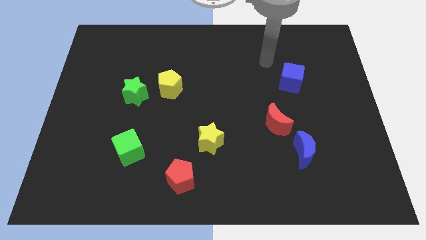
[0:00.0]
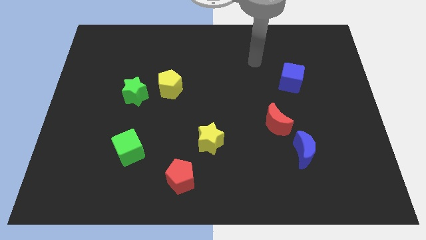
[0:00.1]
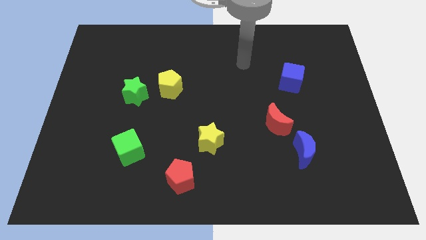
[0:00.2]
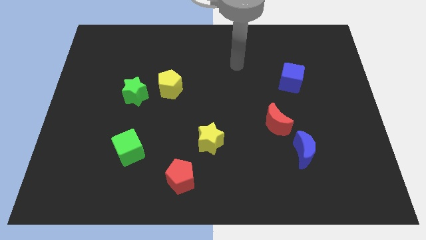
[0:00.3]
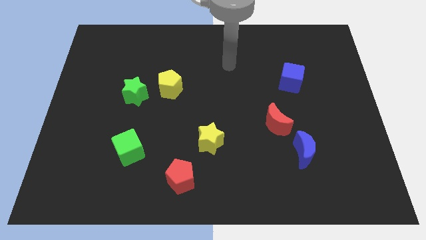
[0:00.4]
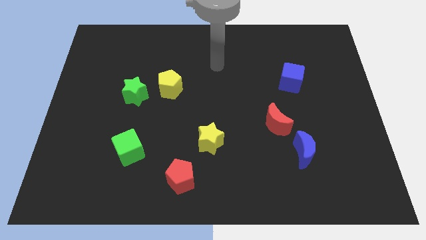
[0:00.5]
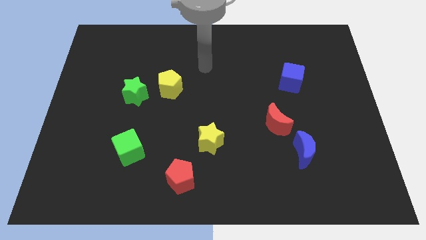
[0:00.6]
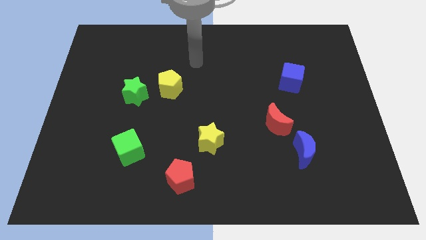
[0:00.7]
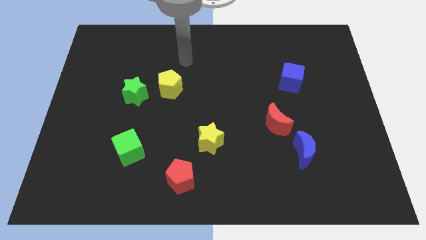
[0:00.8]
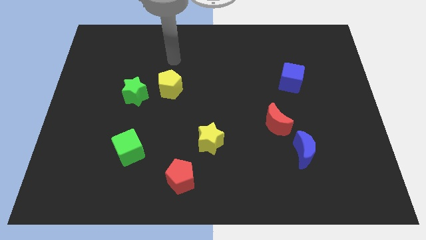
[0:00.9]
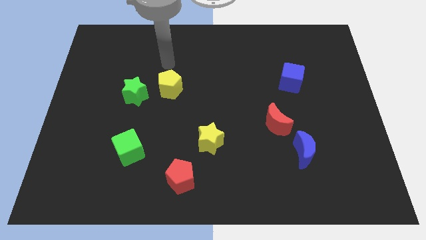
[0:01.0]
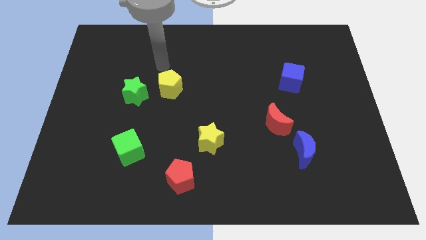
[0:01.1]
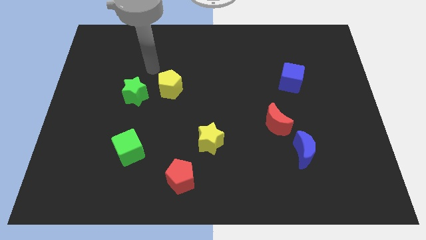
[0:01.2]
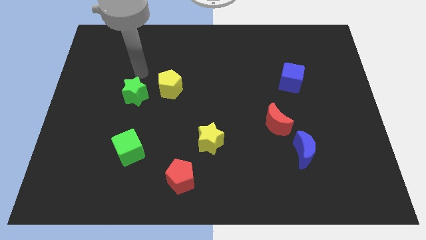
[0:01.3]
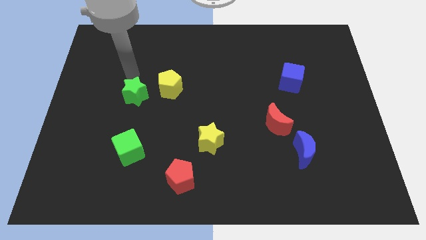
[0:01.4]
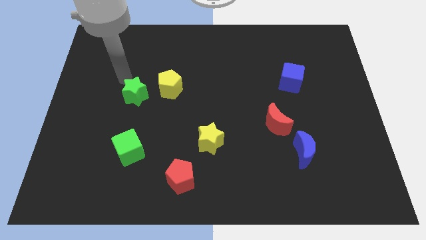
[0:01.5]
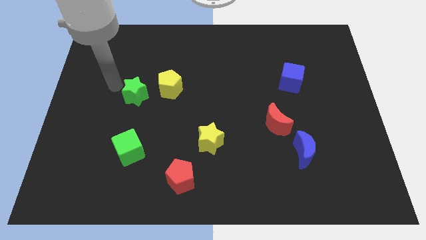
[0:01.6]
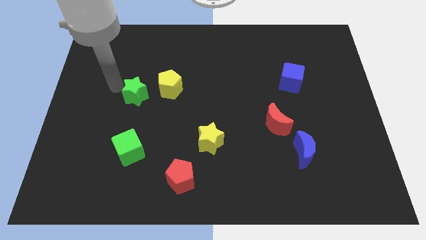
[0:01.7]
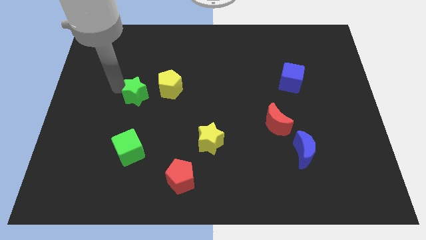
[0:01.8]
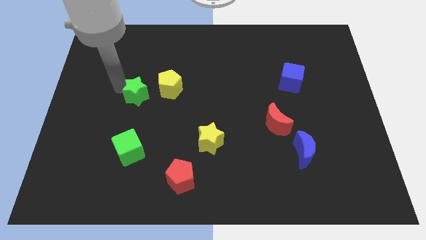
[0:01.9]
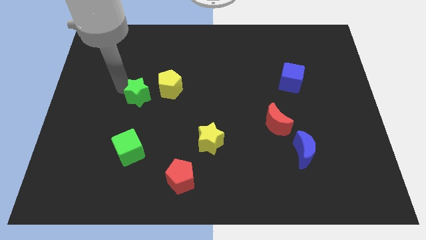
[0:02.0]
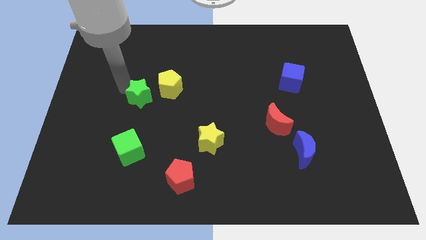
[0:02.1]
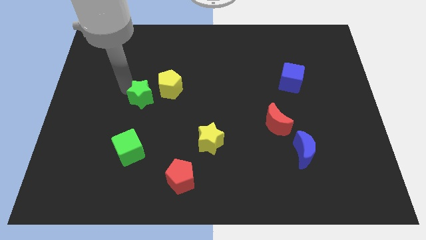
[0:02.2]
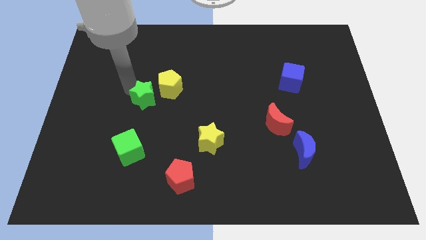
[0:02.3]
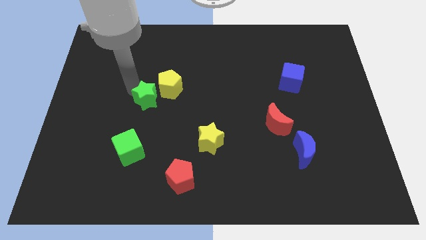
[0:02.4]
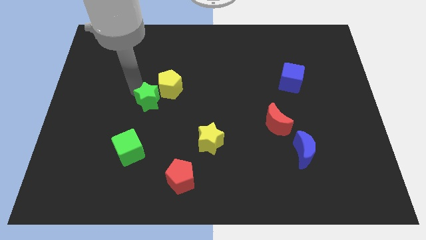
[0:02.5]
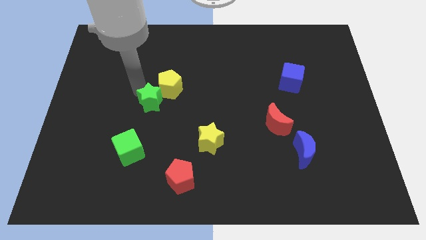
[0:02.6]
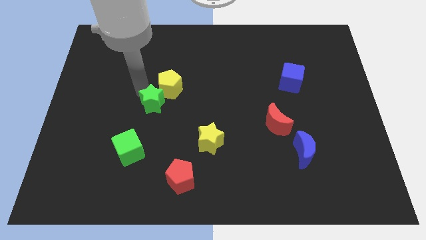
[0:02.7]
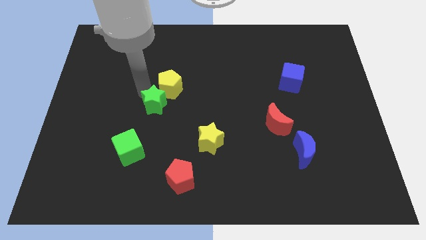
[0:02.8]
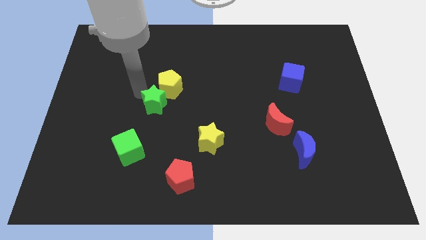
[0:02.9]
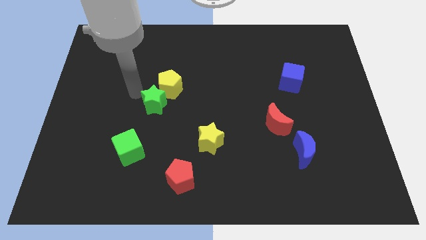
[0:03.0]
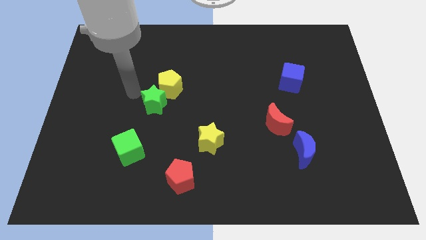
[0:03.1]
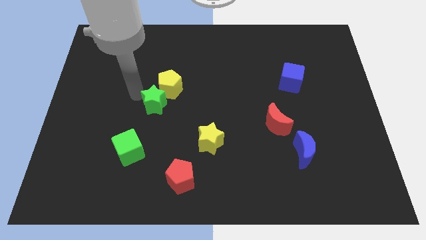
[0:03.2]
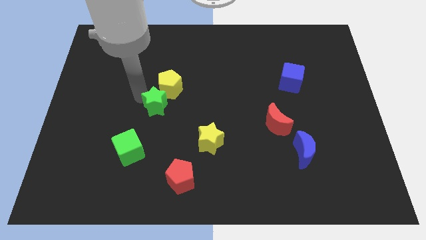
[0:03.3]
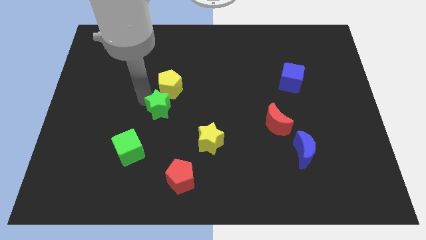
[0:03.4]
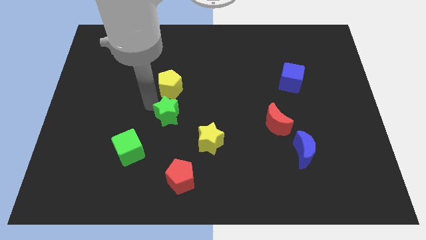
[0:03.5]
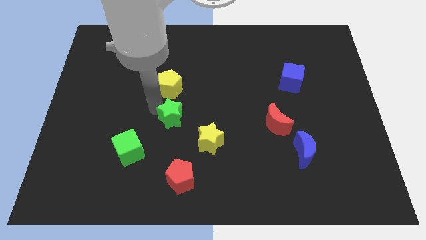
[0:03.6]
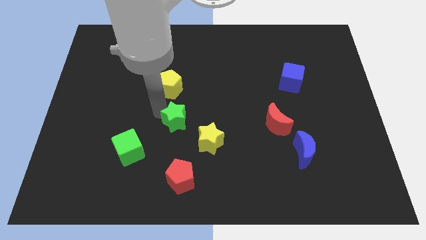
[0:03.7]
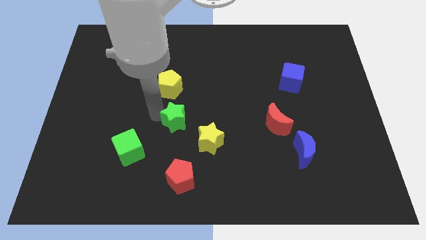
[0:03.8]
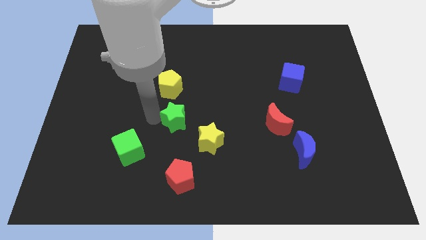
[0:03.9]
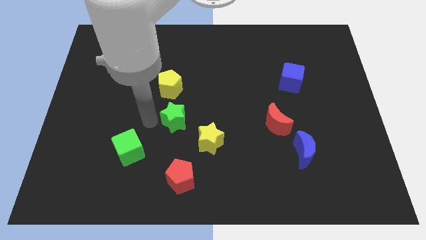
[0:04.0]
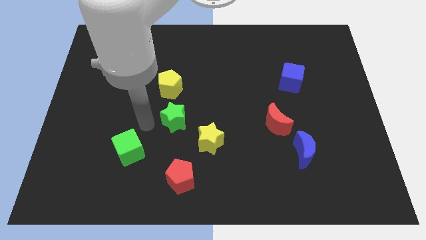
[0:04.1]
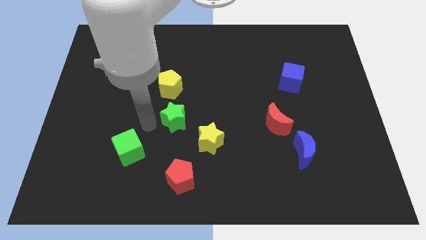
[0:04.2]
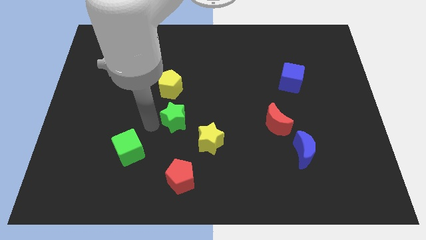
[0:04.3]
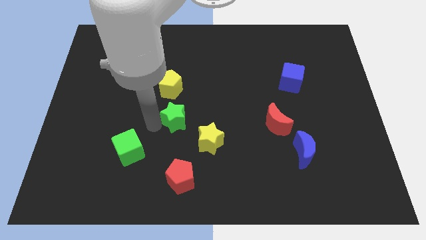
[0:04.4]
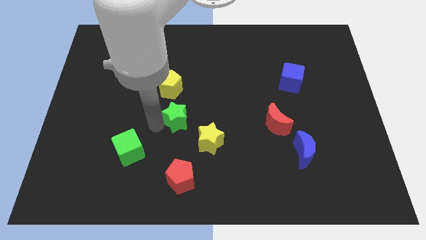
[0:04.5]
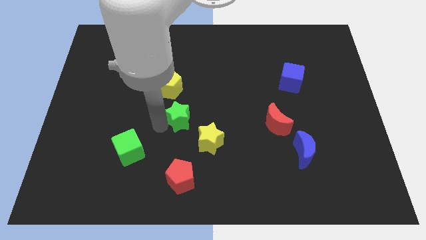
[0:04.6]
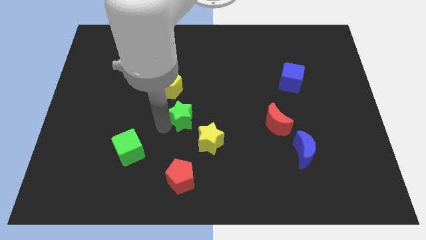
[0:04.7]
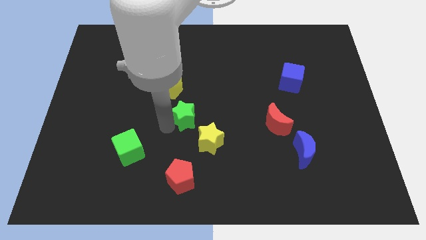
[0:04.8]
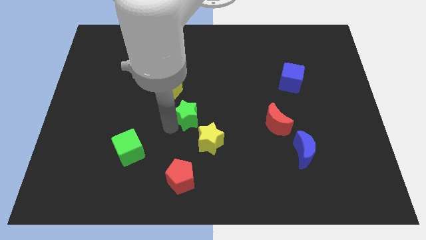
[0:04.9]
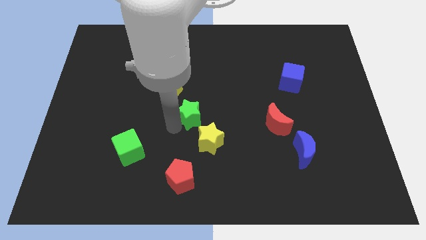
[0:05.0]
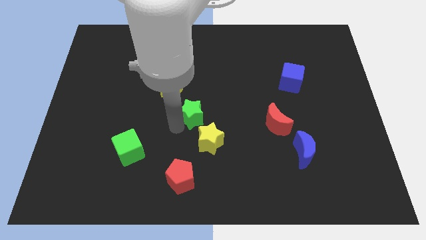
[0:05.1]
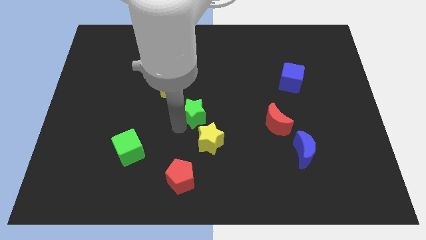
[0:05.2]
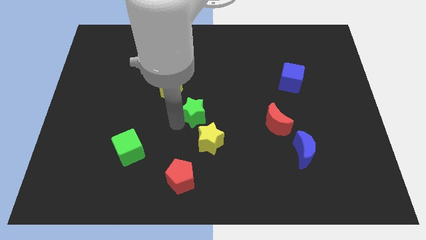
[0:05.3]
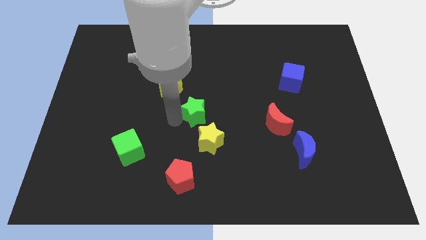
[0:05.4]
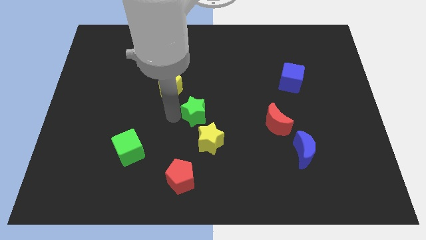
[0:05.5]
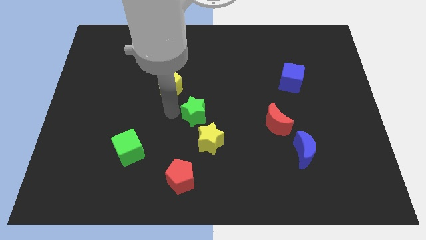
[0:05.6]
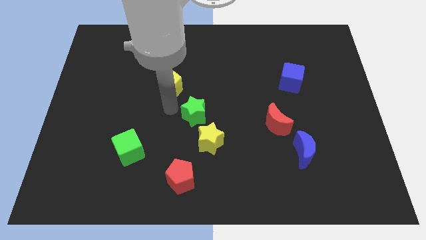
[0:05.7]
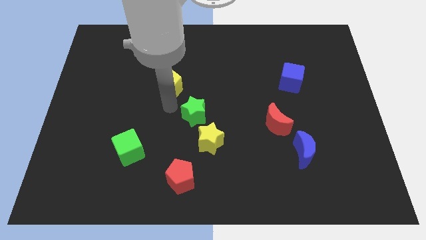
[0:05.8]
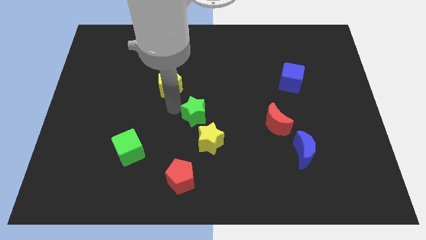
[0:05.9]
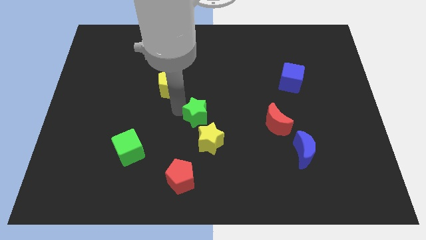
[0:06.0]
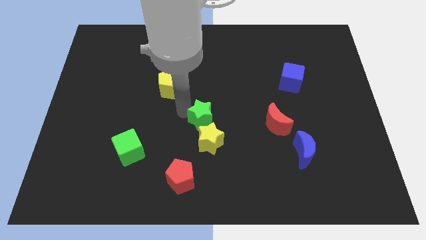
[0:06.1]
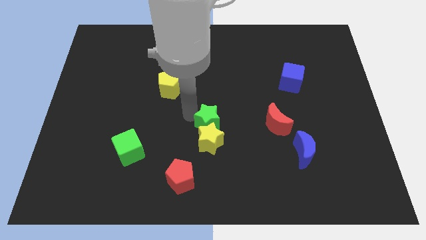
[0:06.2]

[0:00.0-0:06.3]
slide the green star diagonally up and to the right of the yellow star

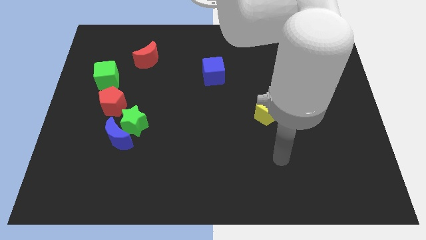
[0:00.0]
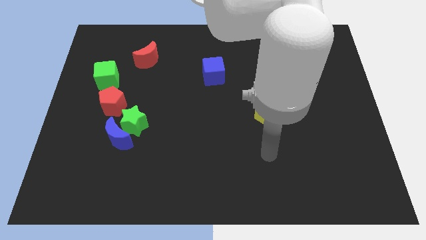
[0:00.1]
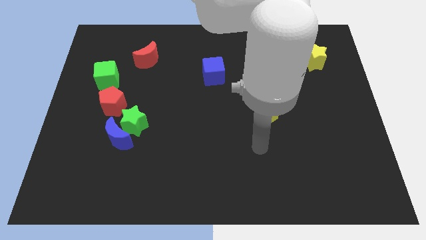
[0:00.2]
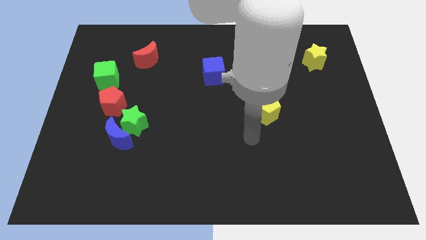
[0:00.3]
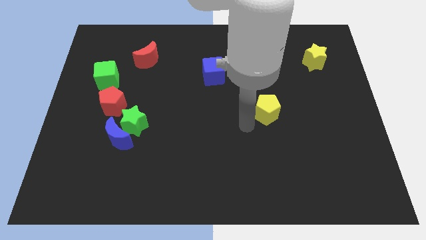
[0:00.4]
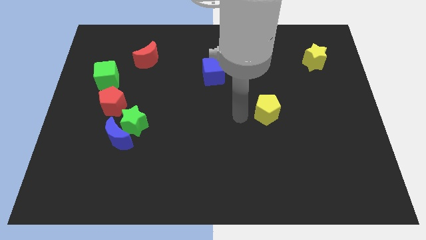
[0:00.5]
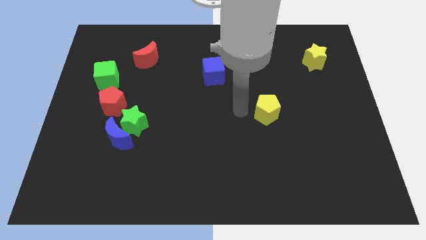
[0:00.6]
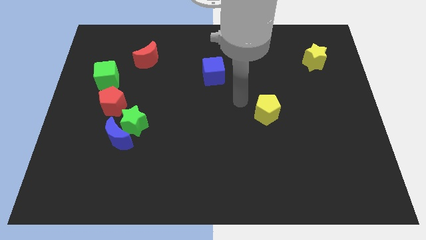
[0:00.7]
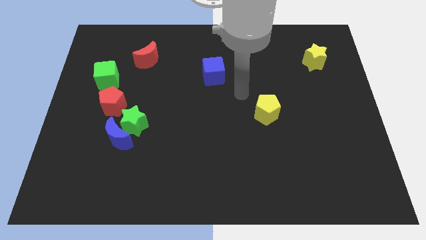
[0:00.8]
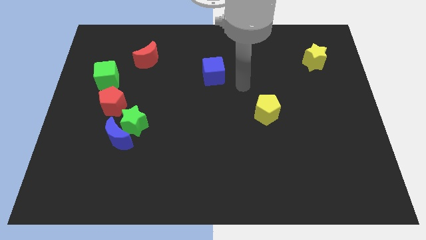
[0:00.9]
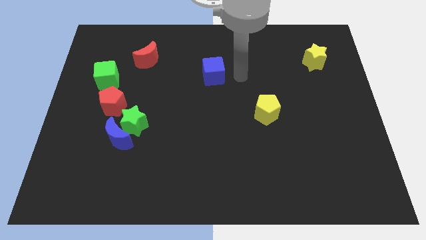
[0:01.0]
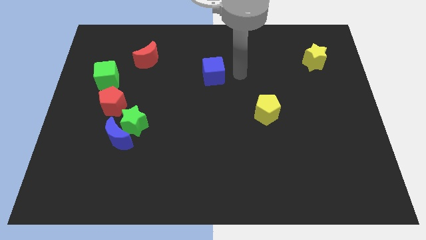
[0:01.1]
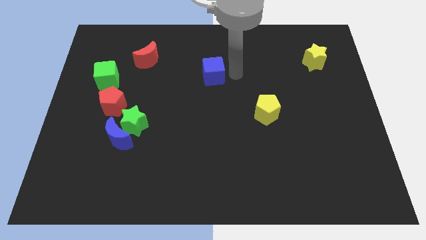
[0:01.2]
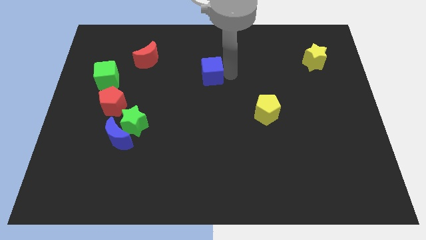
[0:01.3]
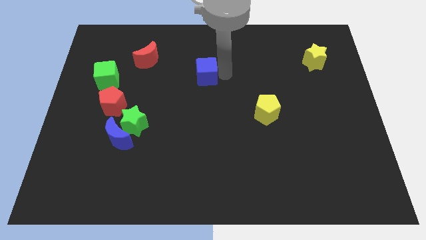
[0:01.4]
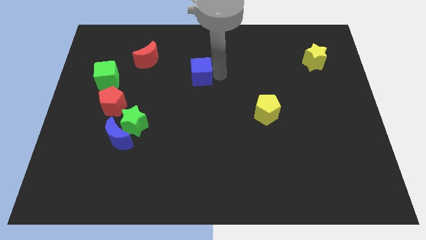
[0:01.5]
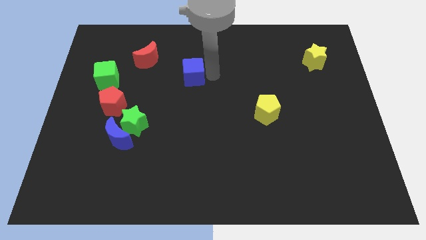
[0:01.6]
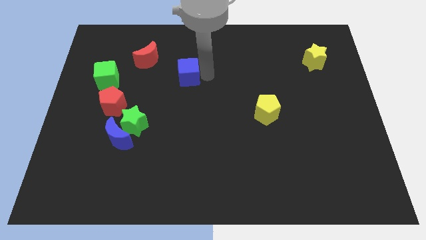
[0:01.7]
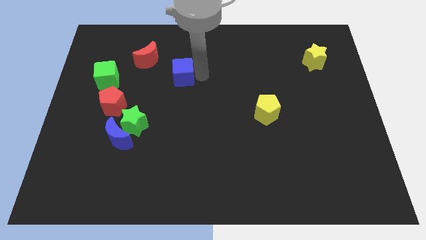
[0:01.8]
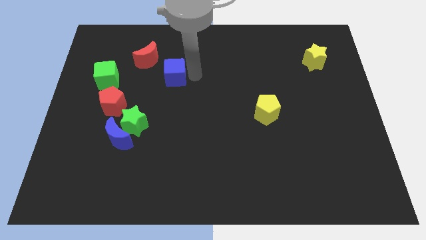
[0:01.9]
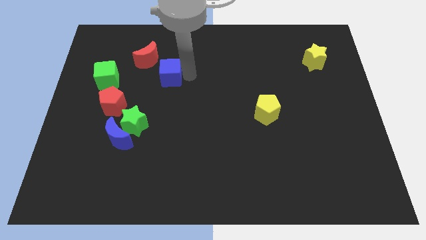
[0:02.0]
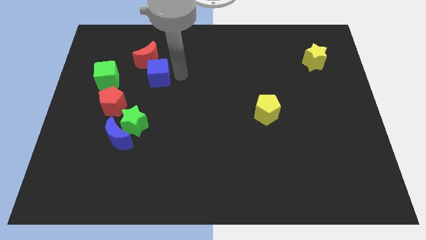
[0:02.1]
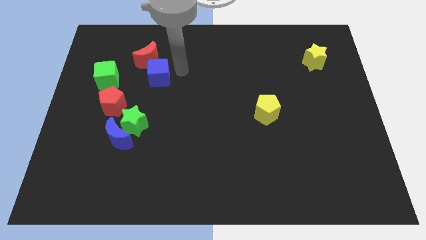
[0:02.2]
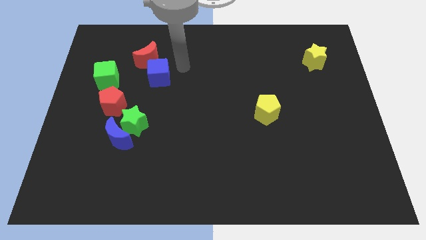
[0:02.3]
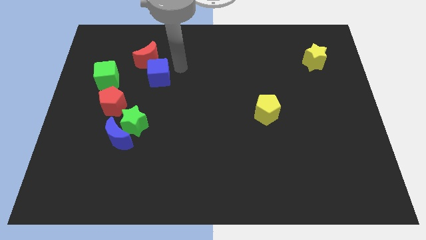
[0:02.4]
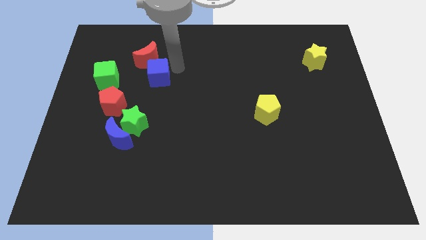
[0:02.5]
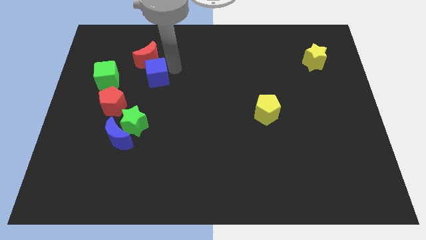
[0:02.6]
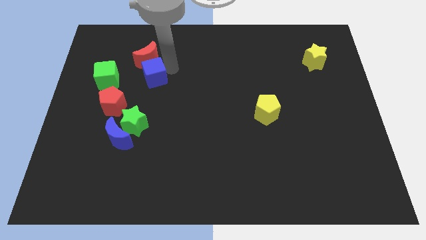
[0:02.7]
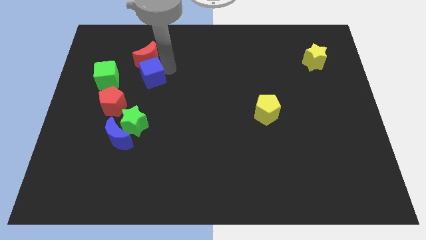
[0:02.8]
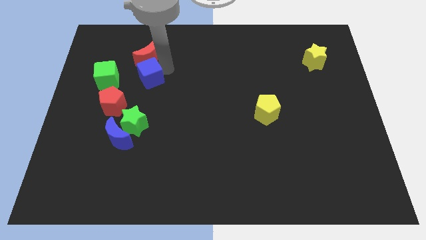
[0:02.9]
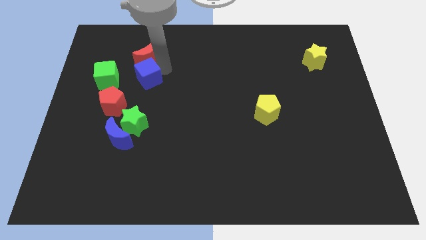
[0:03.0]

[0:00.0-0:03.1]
slide the blue cube to the bottom left of the red moon
